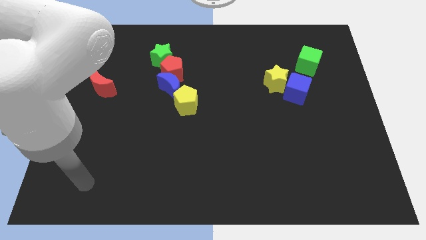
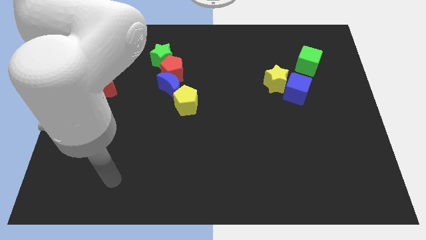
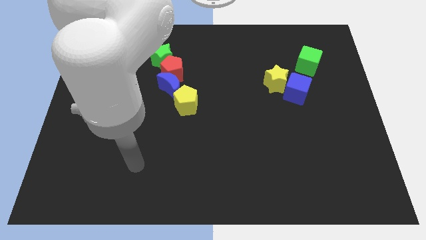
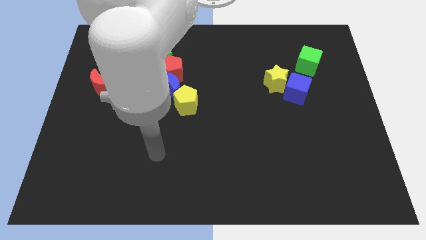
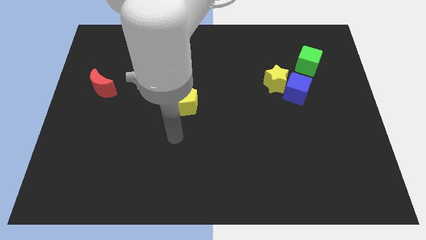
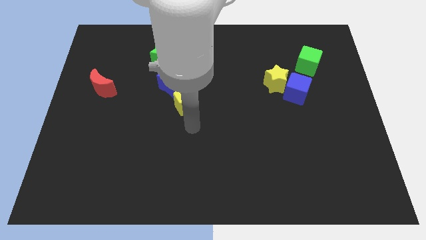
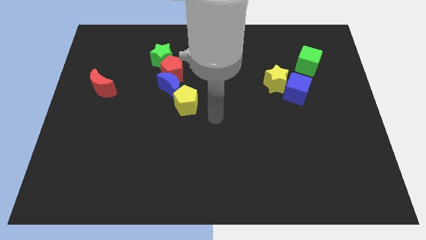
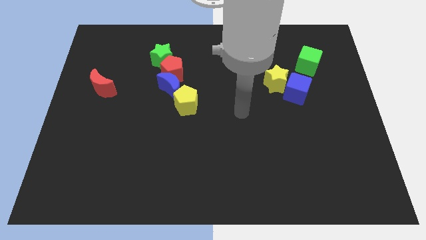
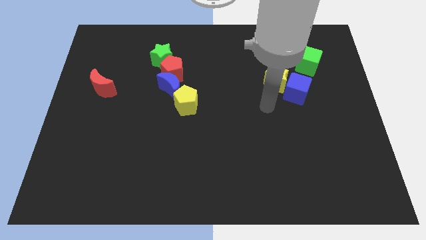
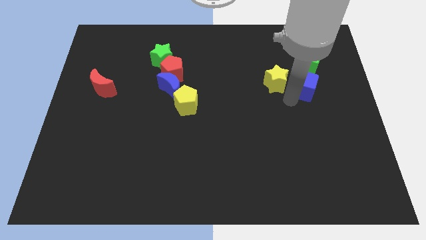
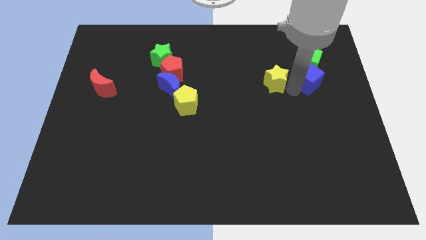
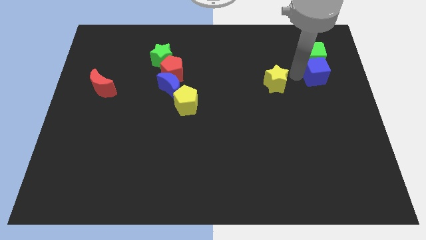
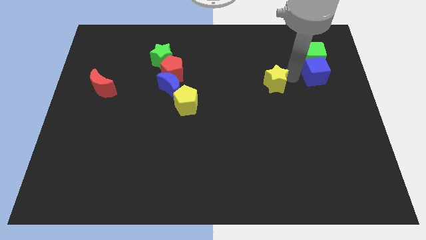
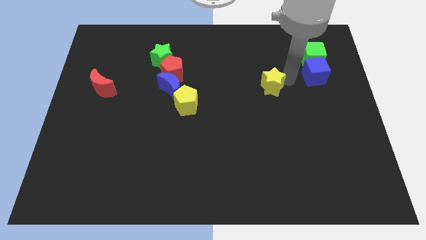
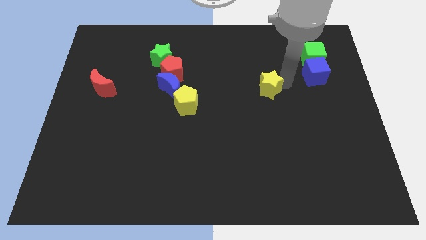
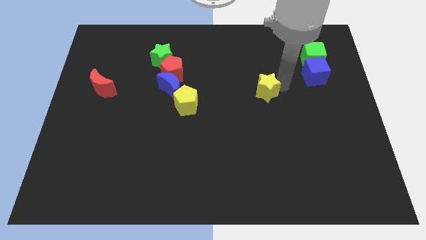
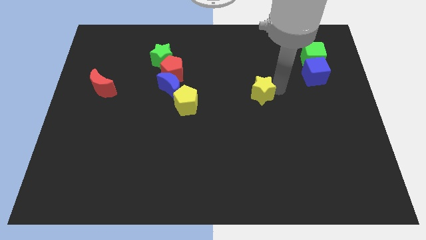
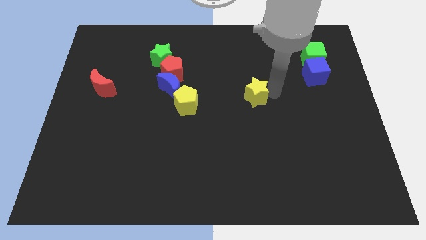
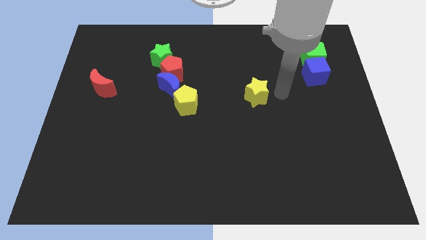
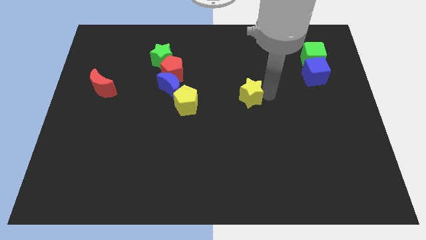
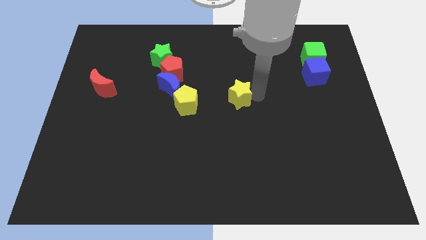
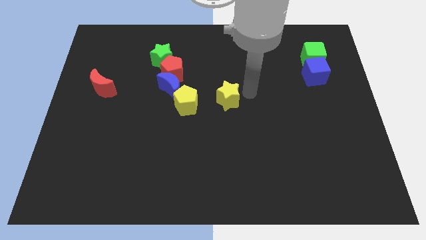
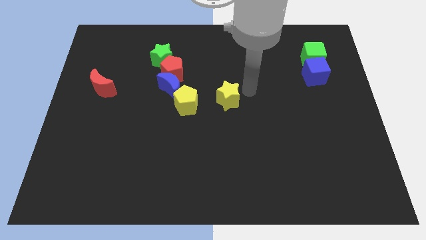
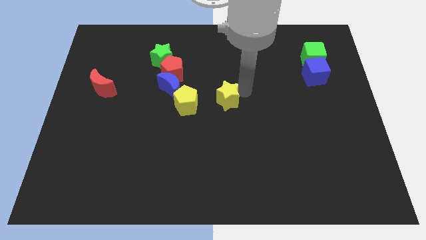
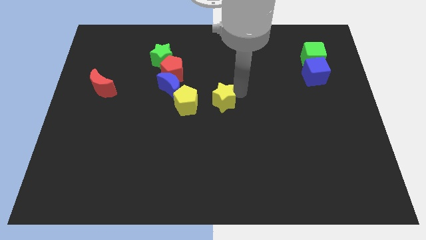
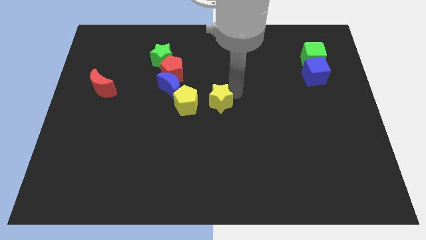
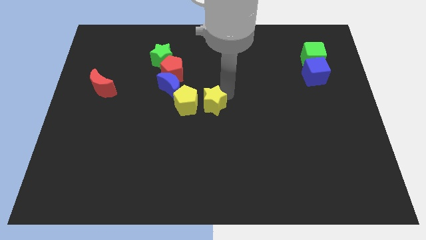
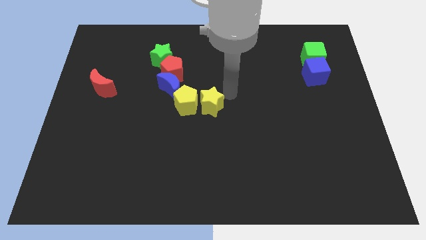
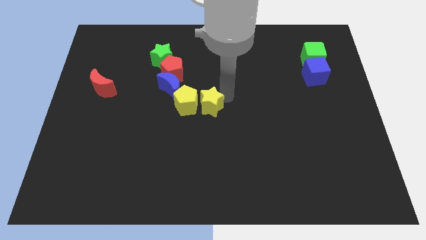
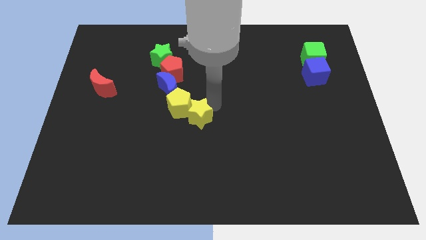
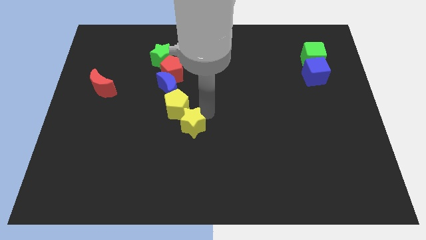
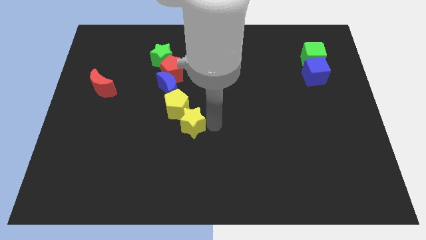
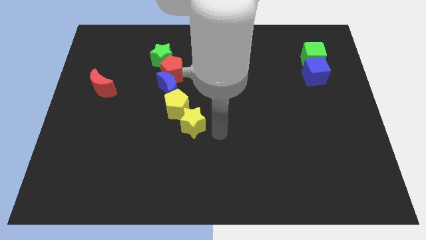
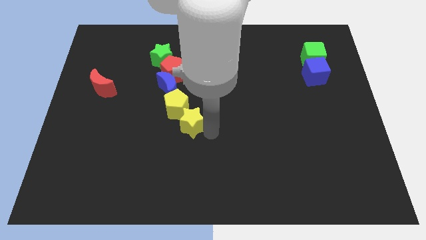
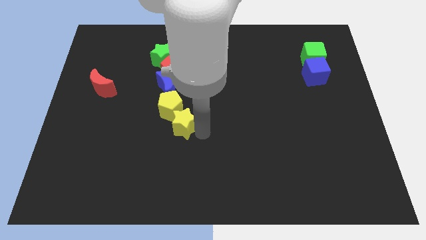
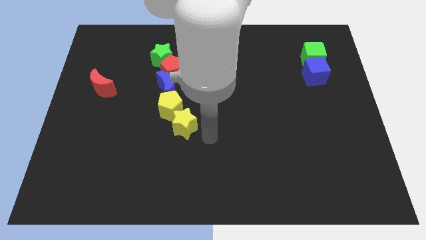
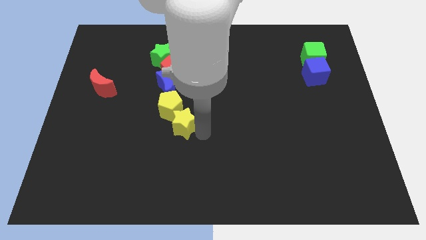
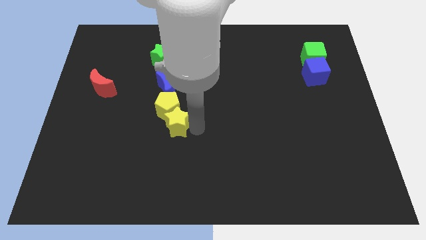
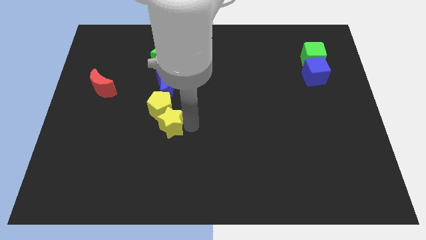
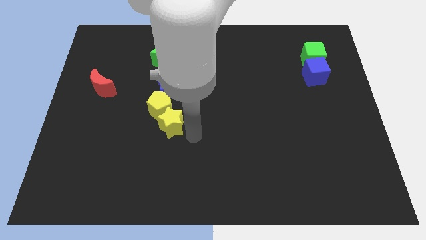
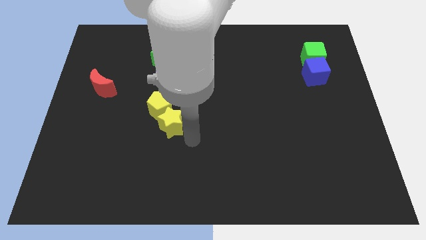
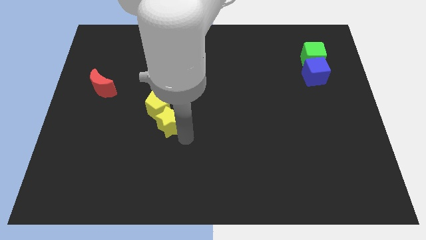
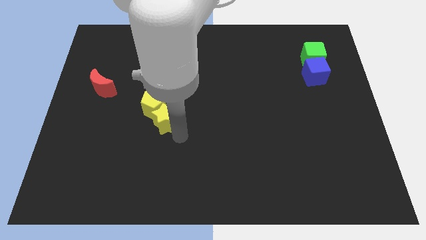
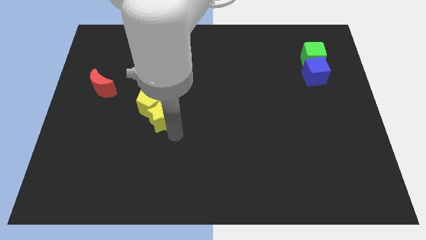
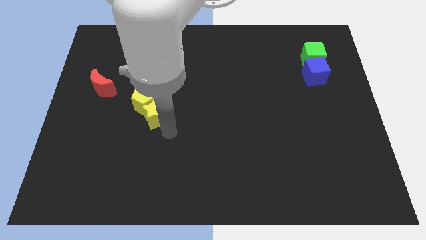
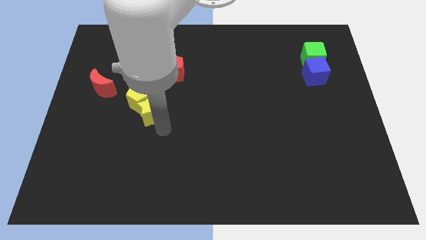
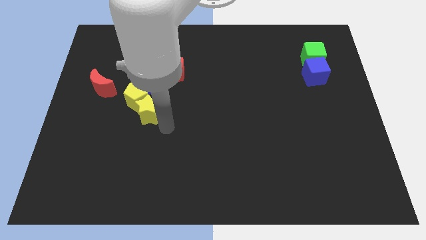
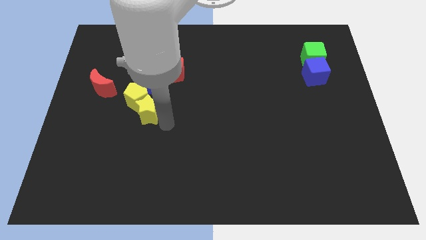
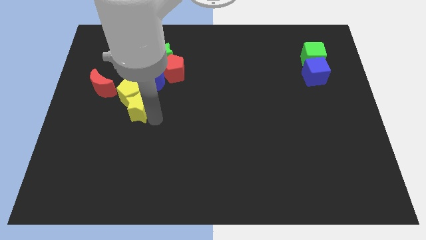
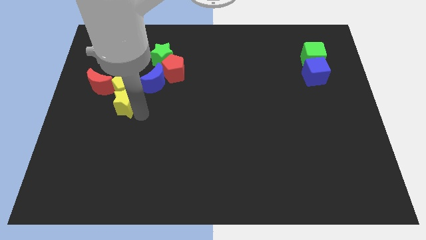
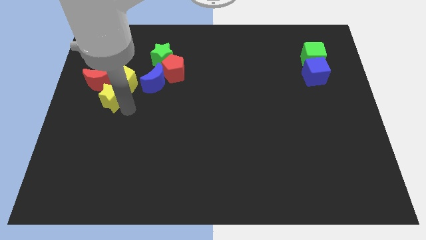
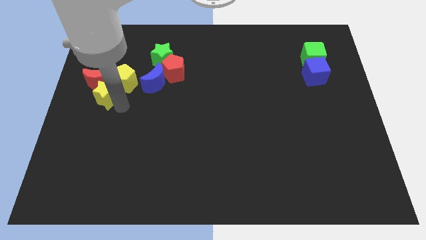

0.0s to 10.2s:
push the yellow star next to the red moon

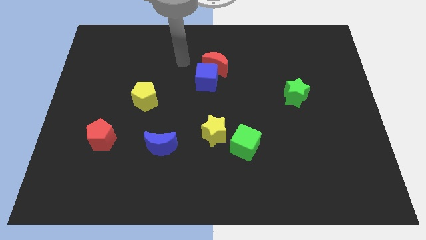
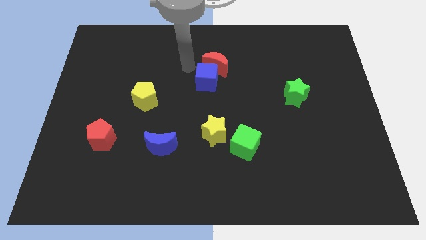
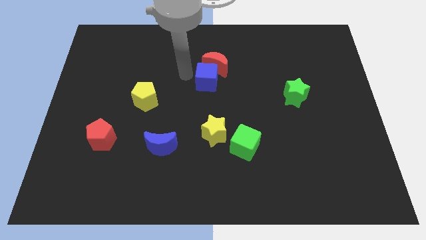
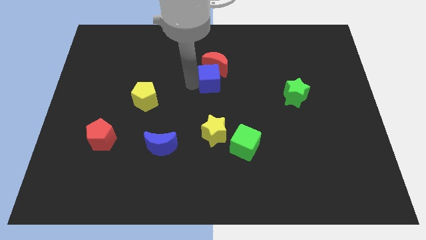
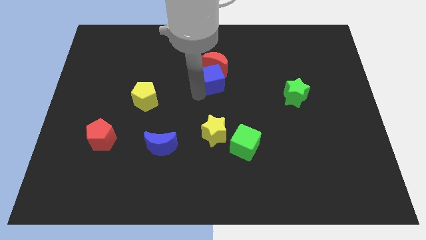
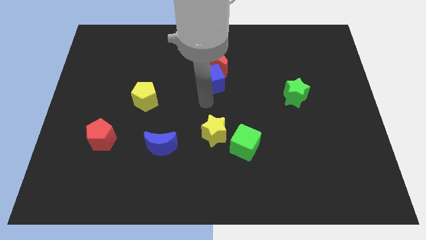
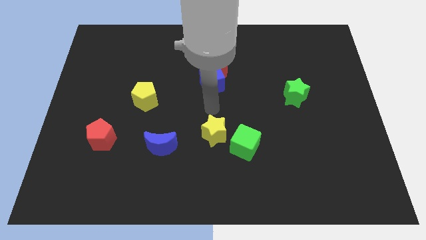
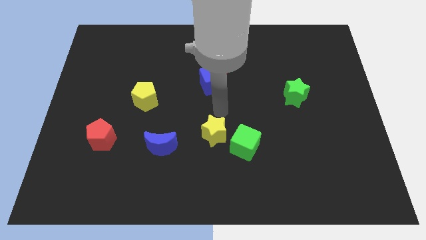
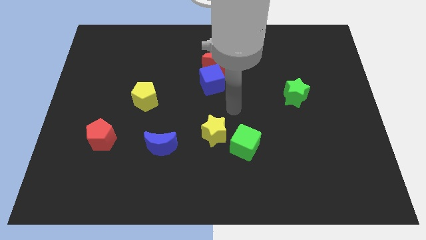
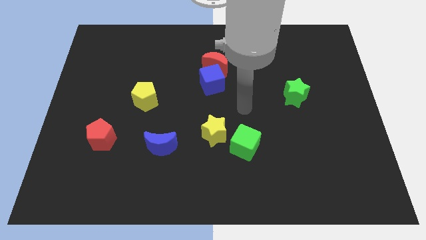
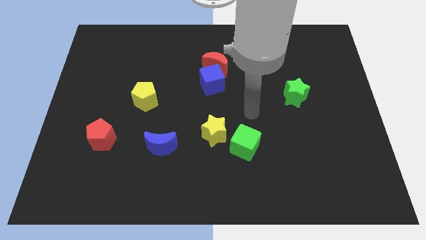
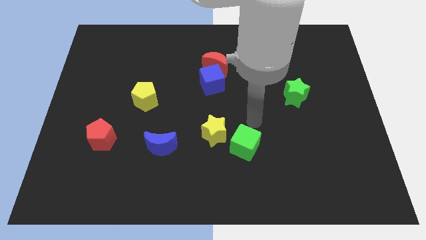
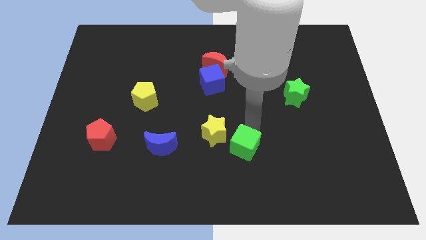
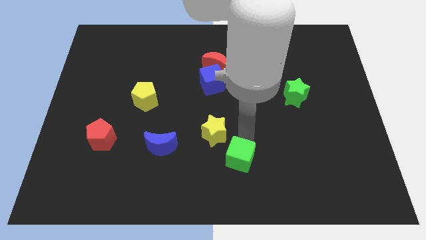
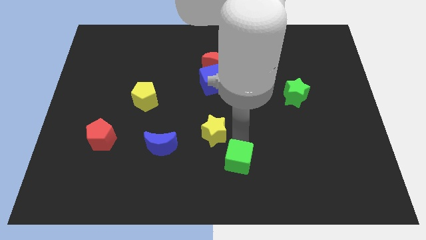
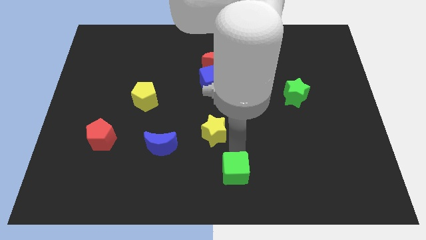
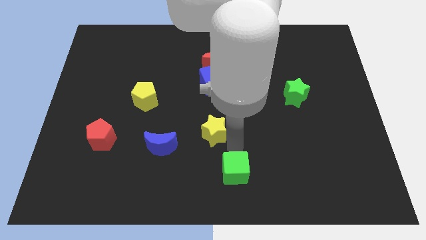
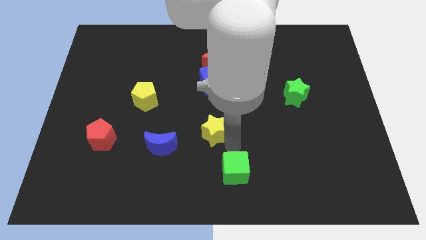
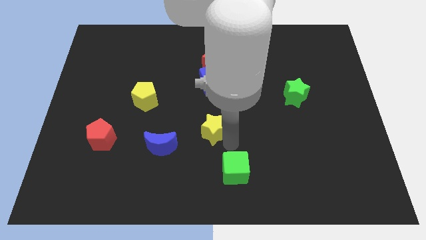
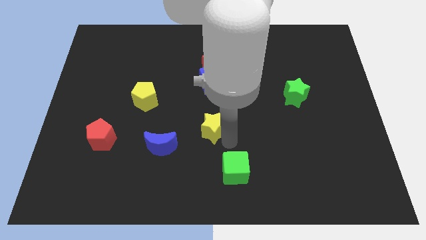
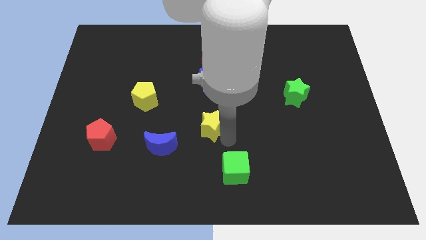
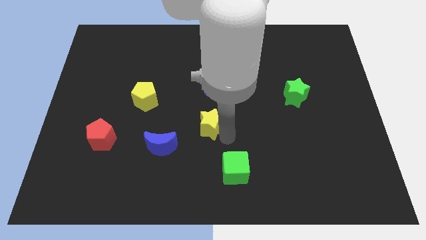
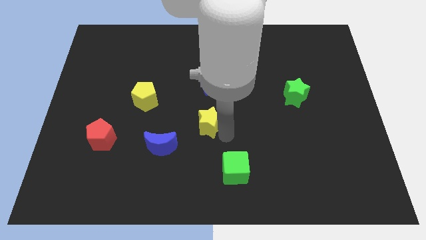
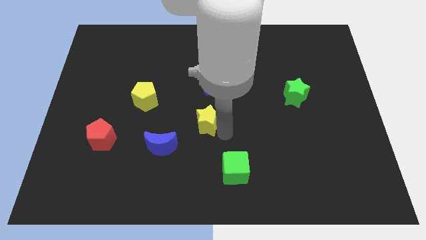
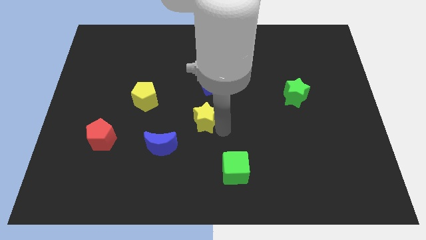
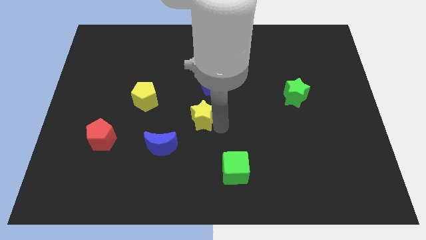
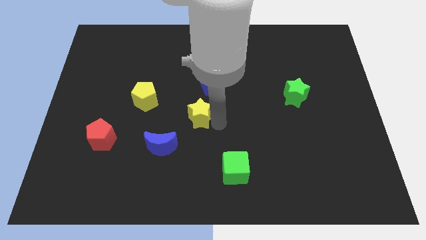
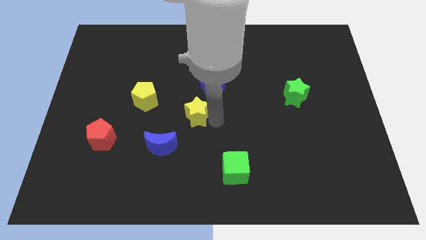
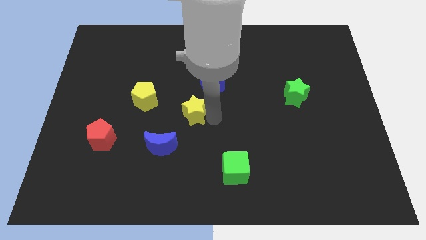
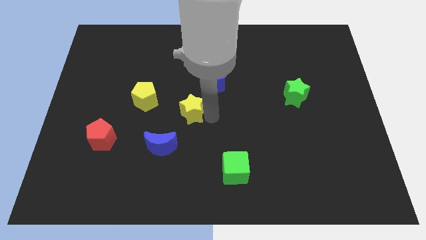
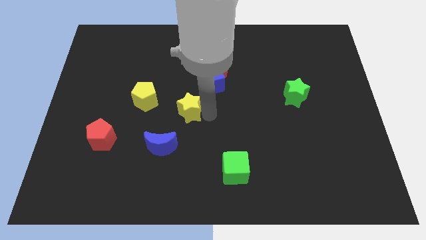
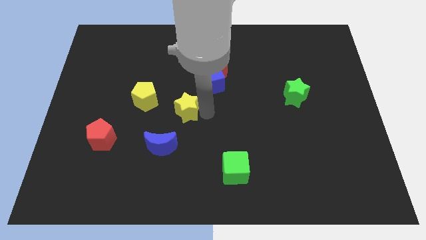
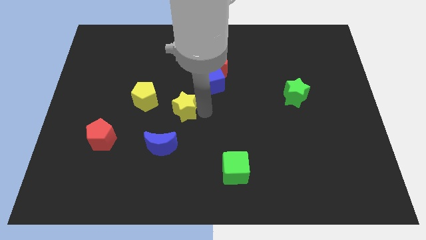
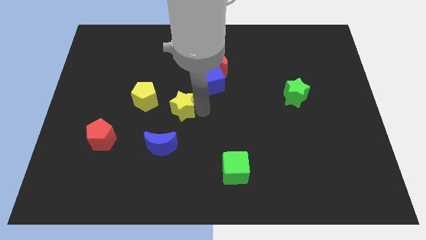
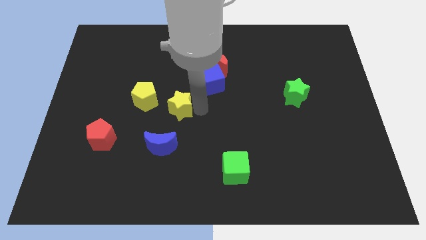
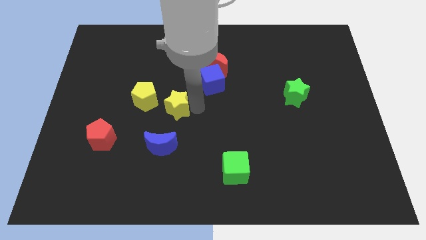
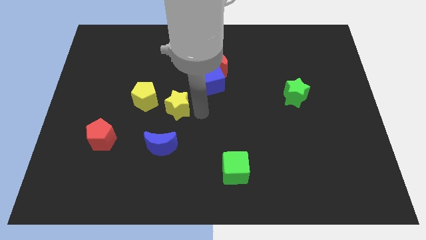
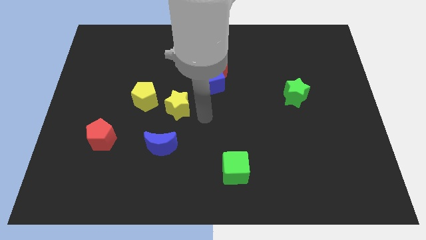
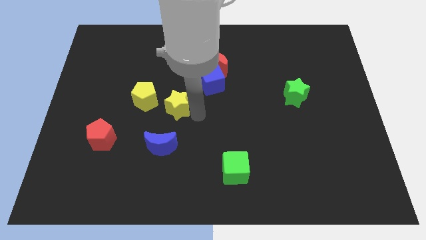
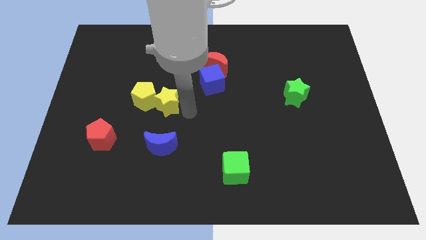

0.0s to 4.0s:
put the yellow star to the yellow pentagon
